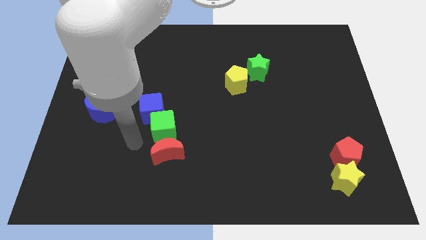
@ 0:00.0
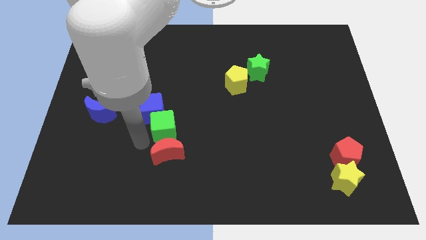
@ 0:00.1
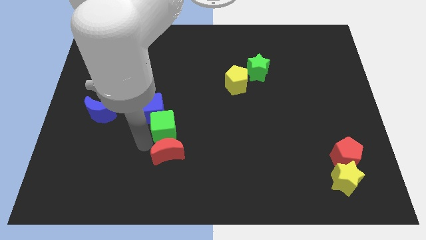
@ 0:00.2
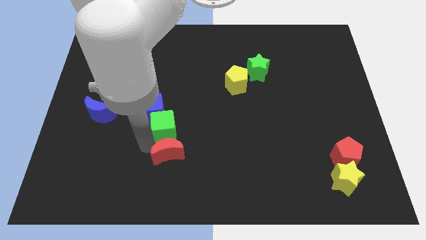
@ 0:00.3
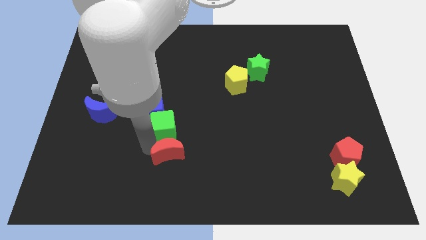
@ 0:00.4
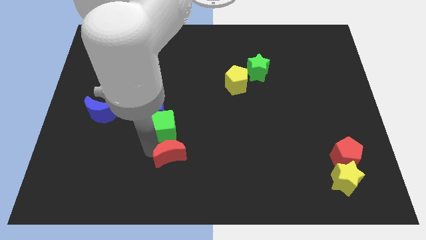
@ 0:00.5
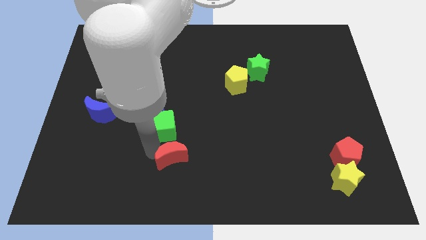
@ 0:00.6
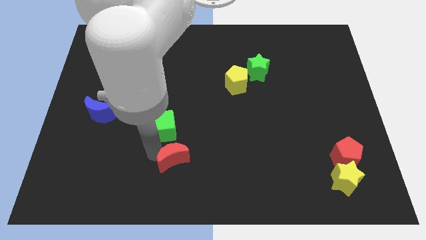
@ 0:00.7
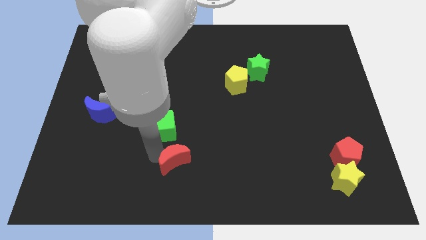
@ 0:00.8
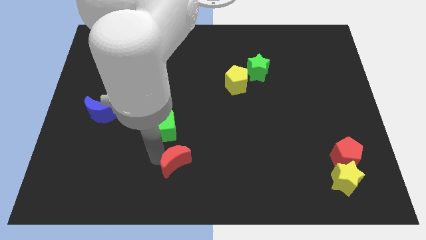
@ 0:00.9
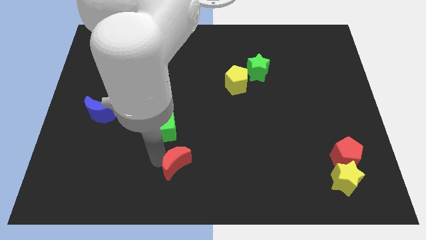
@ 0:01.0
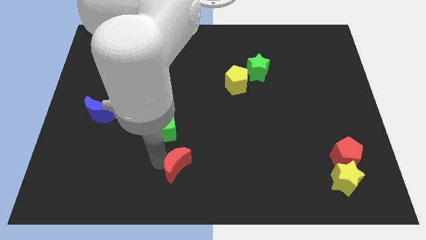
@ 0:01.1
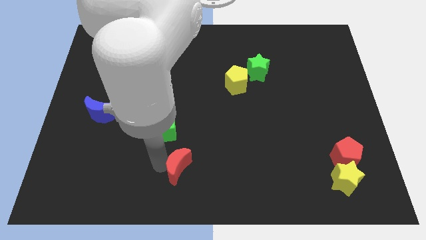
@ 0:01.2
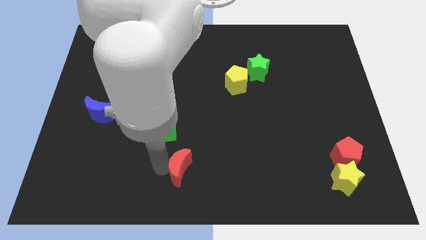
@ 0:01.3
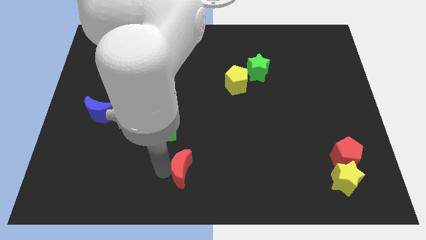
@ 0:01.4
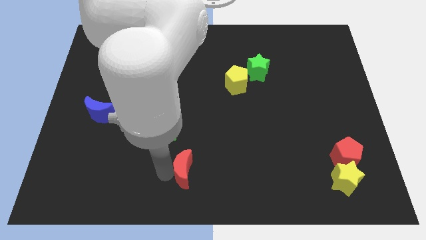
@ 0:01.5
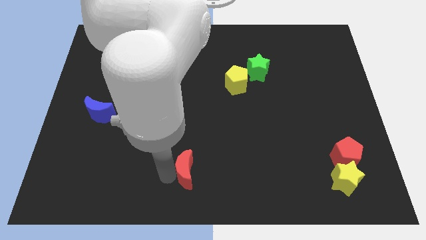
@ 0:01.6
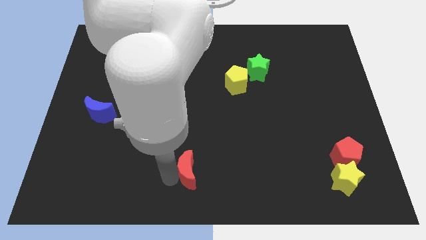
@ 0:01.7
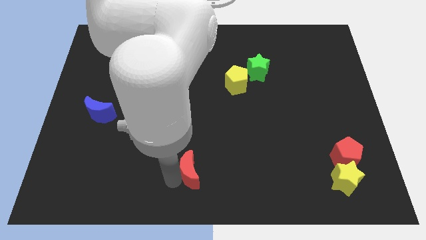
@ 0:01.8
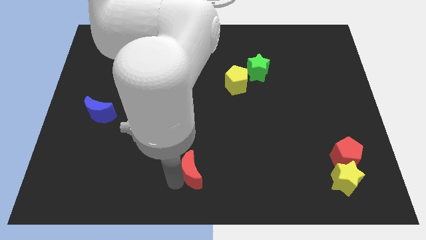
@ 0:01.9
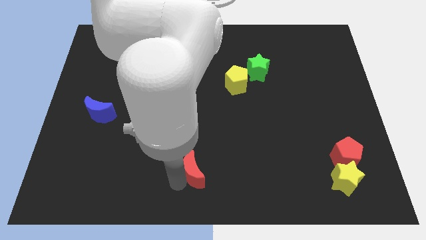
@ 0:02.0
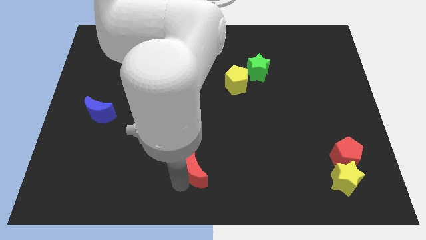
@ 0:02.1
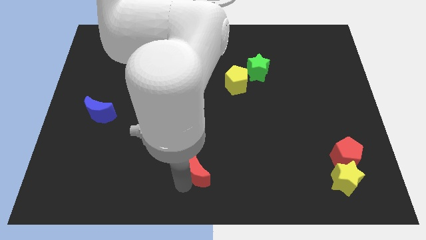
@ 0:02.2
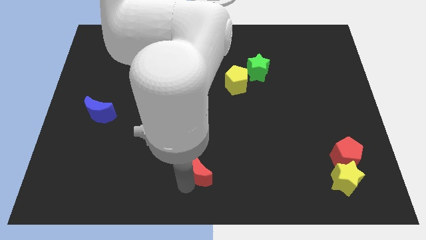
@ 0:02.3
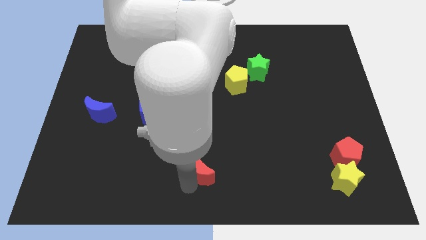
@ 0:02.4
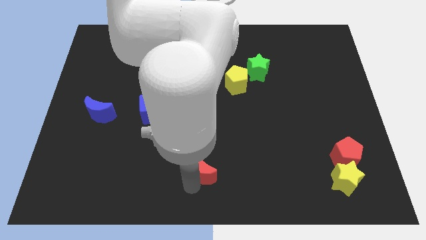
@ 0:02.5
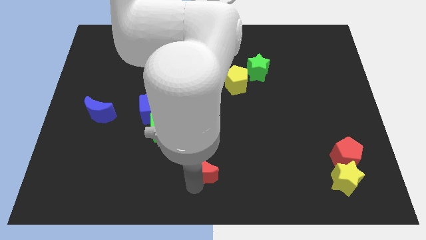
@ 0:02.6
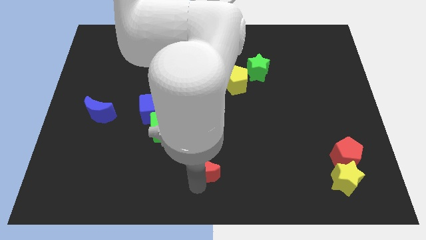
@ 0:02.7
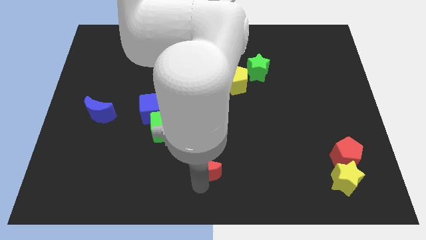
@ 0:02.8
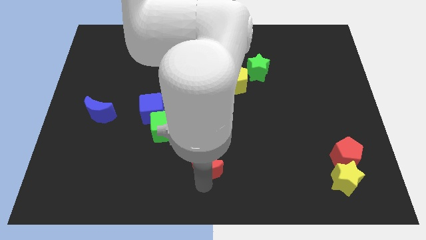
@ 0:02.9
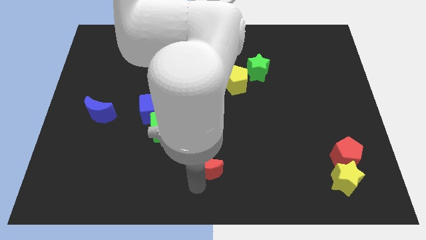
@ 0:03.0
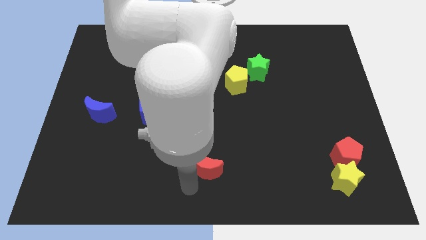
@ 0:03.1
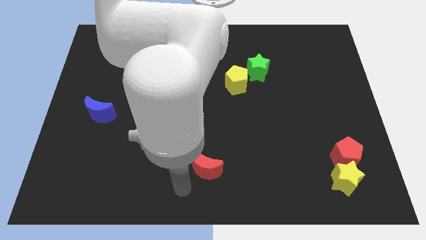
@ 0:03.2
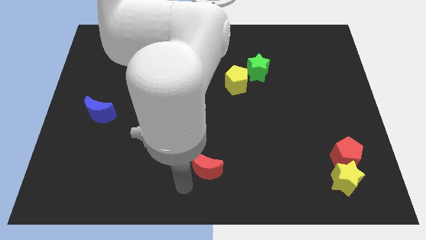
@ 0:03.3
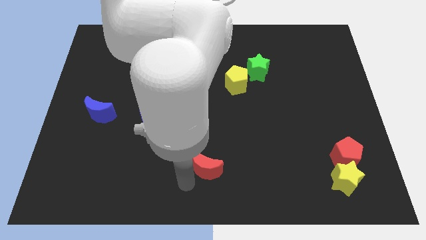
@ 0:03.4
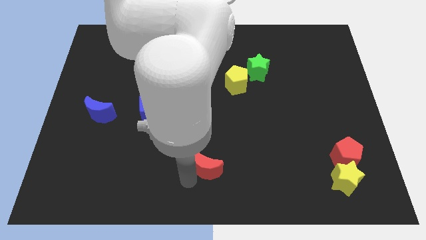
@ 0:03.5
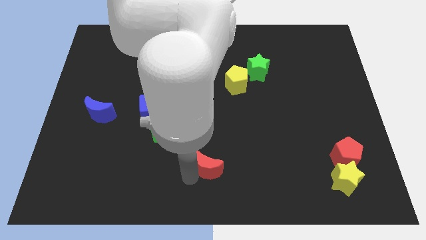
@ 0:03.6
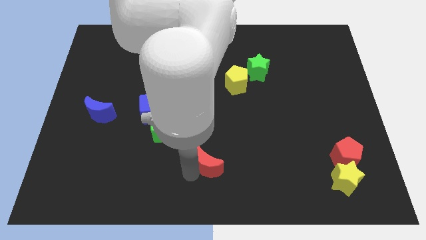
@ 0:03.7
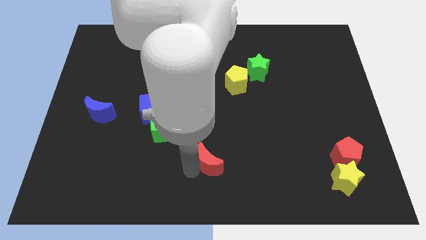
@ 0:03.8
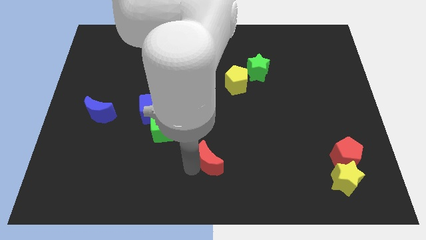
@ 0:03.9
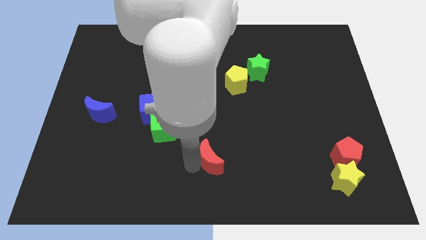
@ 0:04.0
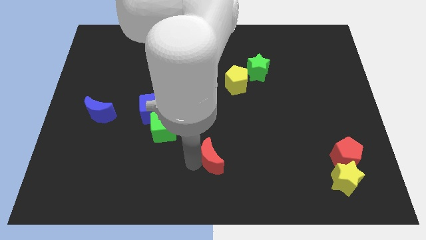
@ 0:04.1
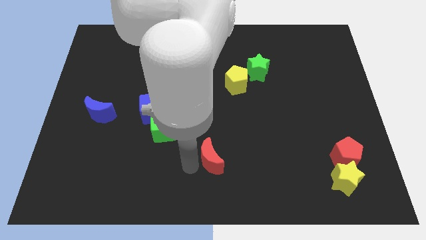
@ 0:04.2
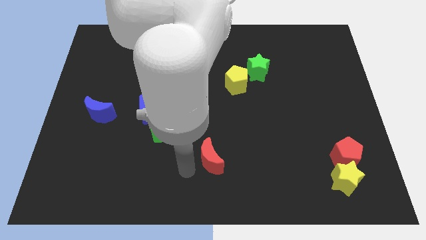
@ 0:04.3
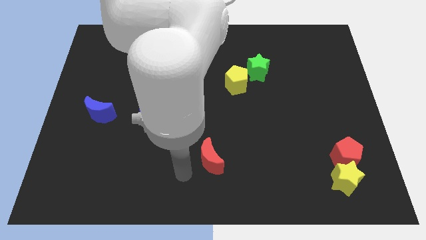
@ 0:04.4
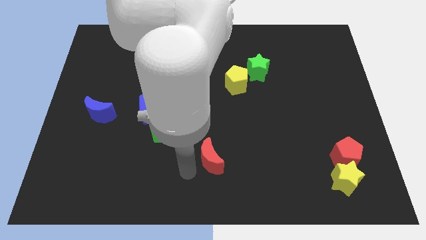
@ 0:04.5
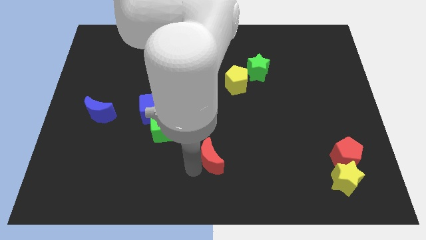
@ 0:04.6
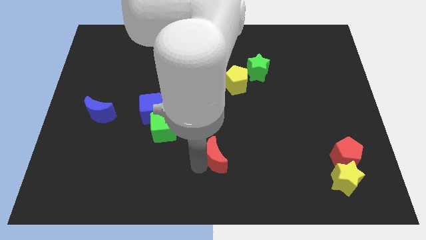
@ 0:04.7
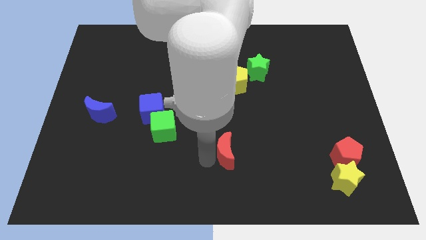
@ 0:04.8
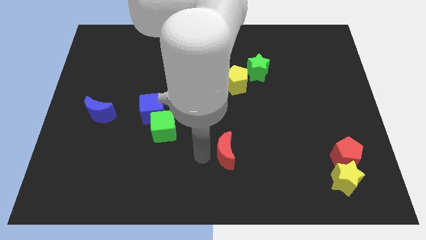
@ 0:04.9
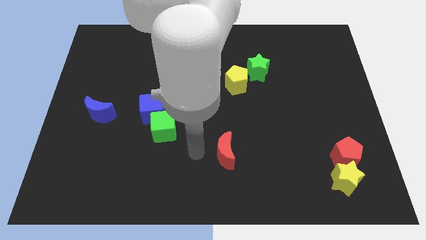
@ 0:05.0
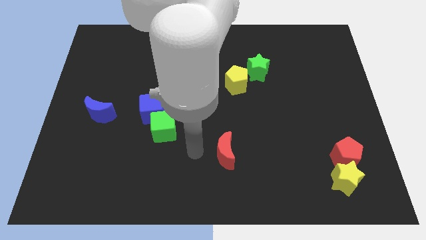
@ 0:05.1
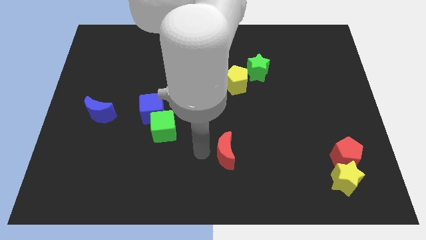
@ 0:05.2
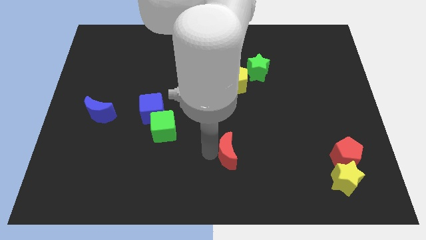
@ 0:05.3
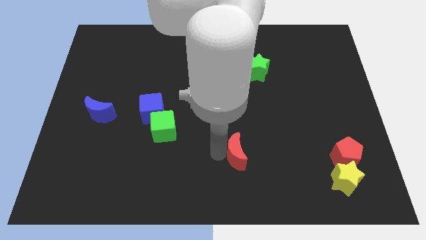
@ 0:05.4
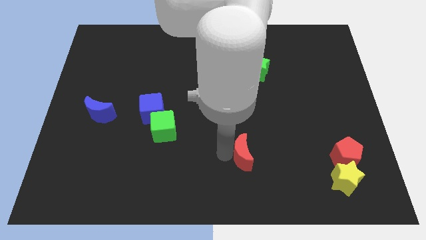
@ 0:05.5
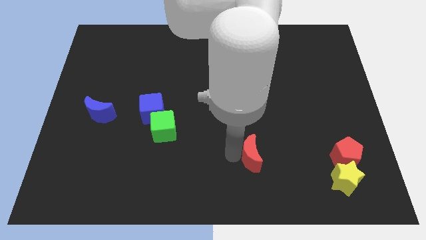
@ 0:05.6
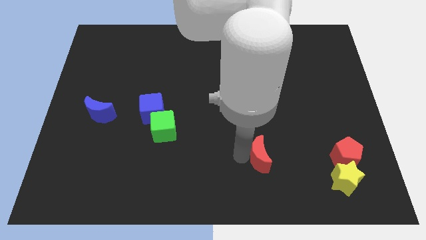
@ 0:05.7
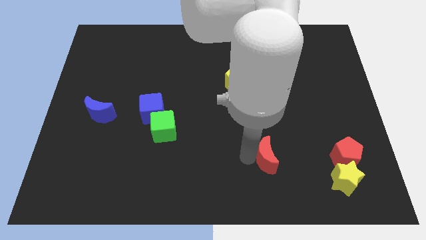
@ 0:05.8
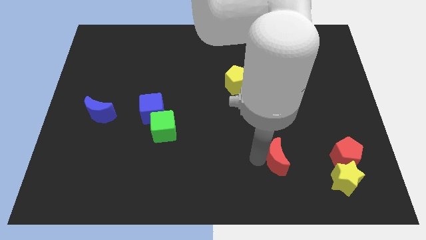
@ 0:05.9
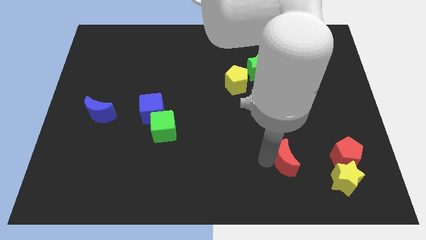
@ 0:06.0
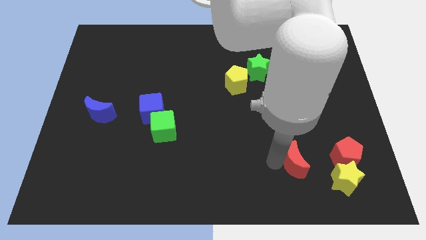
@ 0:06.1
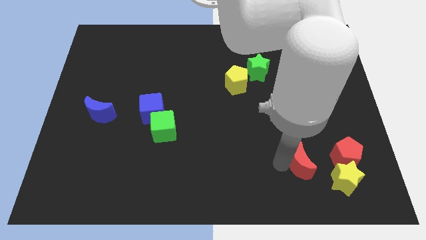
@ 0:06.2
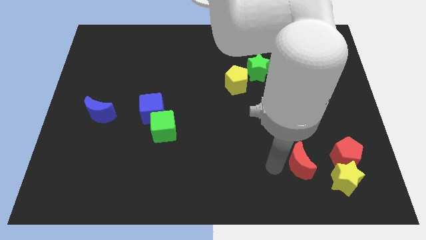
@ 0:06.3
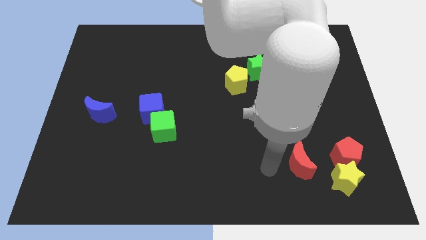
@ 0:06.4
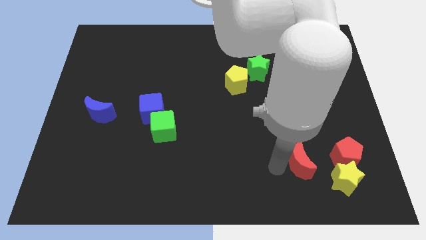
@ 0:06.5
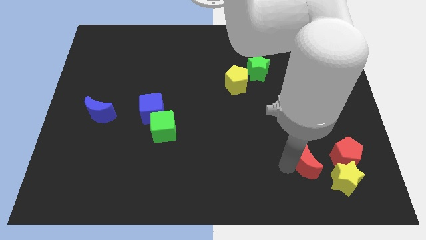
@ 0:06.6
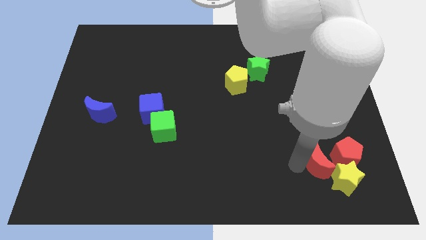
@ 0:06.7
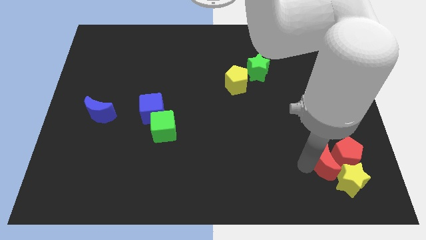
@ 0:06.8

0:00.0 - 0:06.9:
push the red moon to the red pentagon
